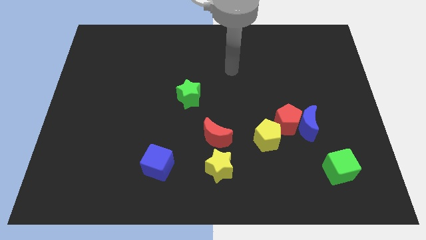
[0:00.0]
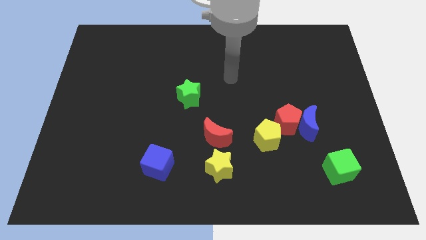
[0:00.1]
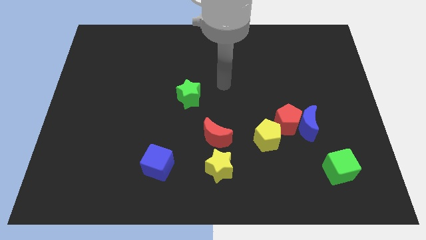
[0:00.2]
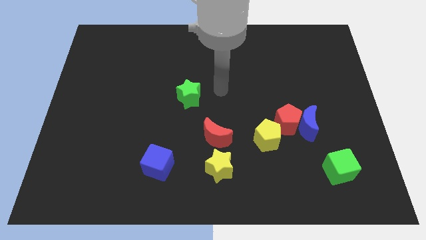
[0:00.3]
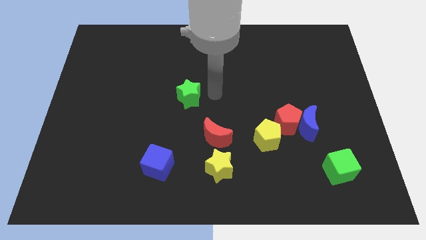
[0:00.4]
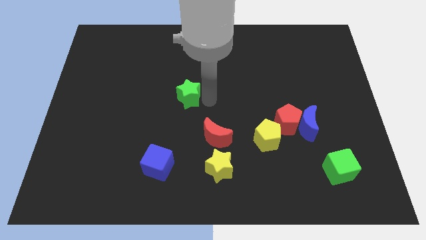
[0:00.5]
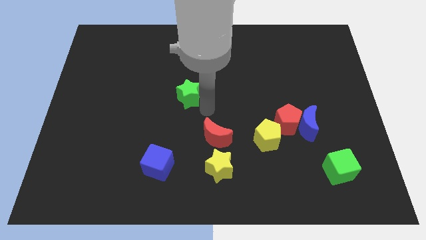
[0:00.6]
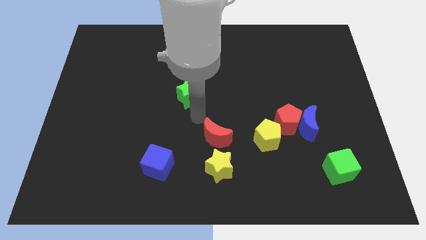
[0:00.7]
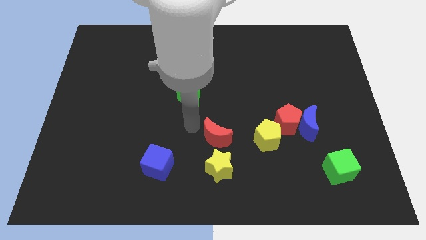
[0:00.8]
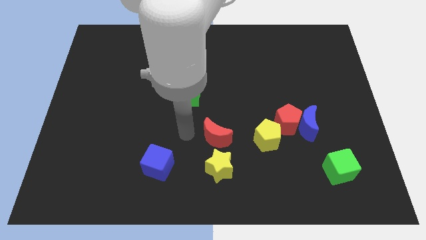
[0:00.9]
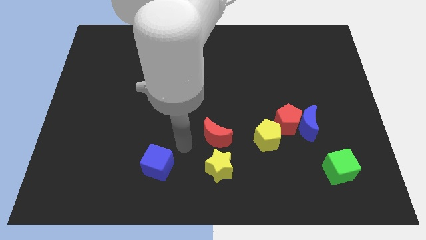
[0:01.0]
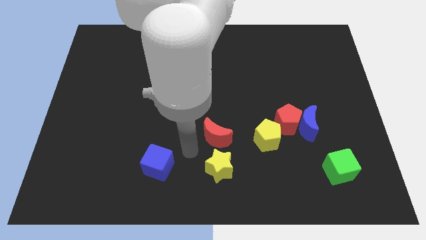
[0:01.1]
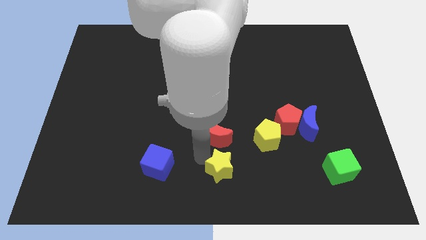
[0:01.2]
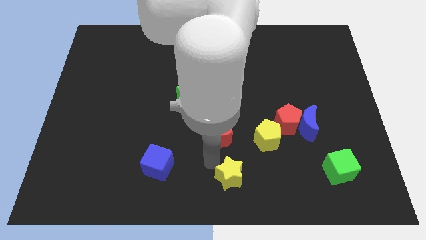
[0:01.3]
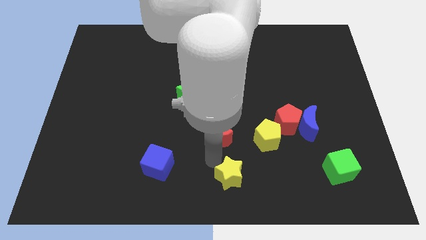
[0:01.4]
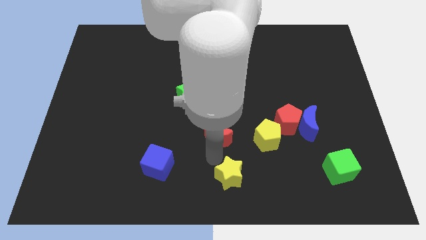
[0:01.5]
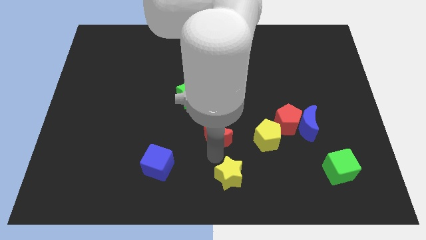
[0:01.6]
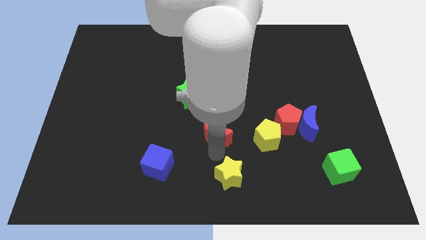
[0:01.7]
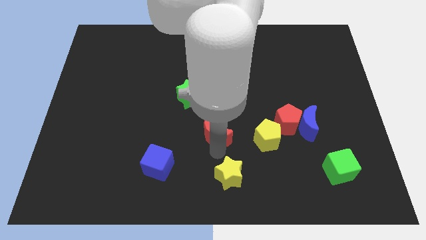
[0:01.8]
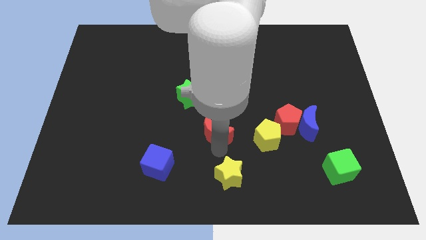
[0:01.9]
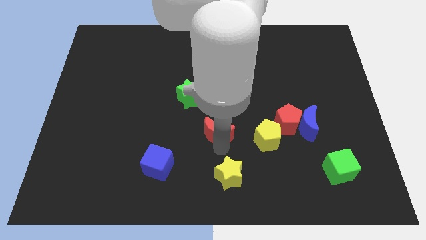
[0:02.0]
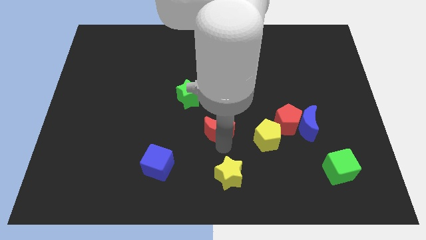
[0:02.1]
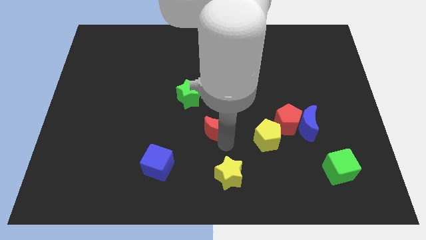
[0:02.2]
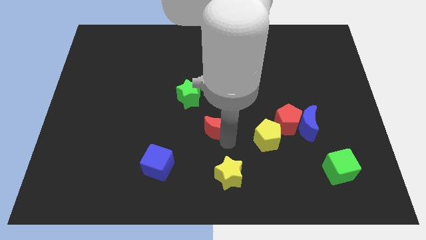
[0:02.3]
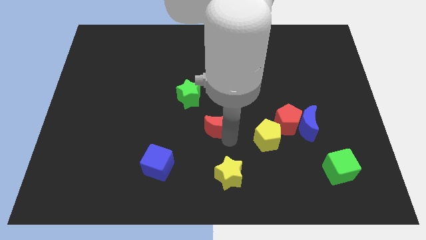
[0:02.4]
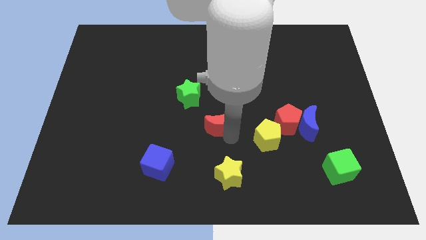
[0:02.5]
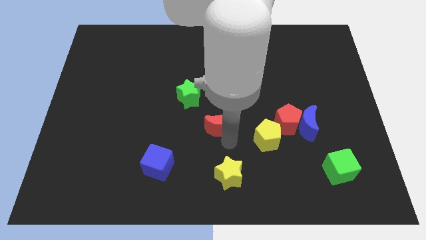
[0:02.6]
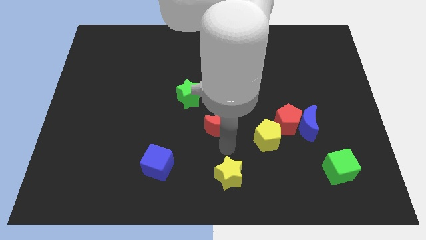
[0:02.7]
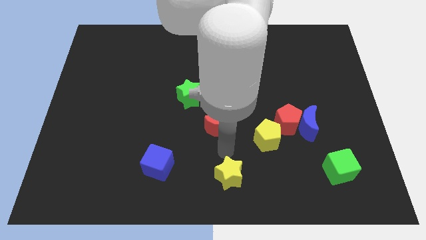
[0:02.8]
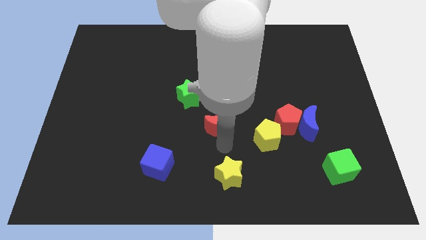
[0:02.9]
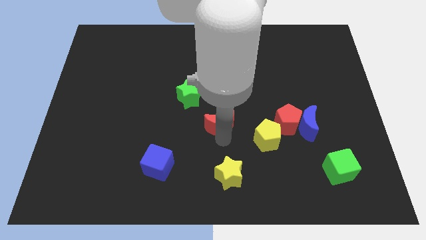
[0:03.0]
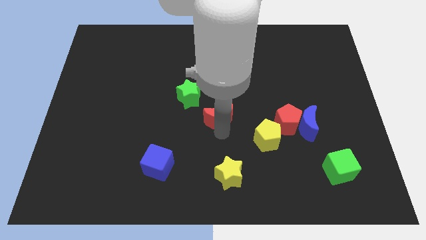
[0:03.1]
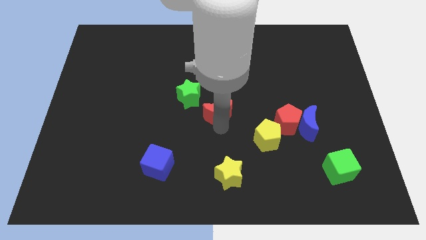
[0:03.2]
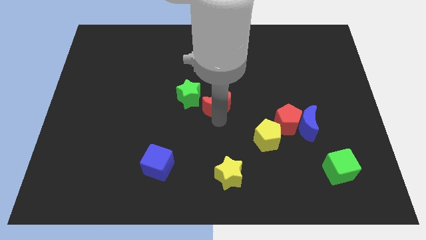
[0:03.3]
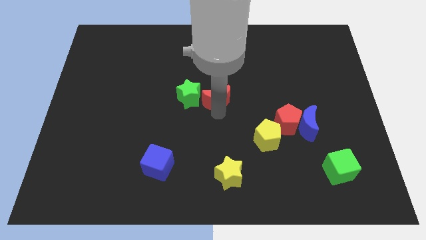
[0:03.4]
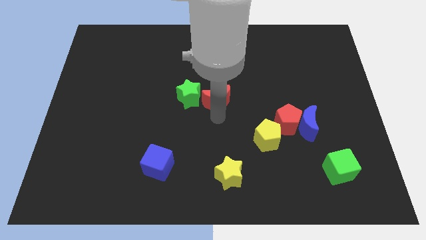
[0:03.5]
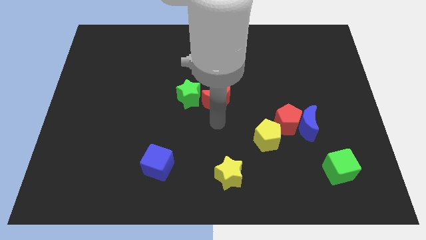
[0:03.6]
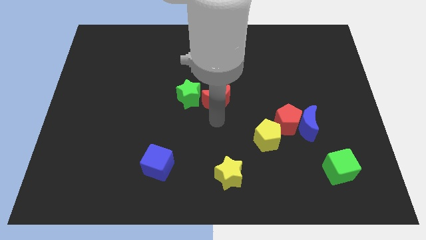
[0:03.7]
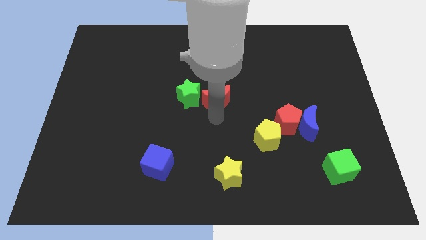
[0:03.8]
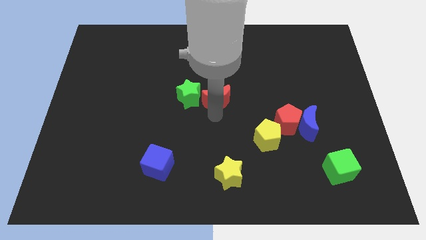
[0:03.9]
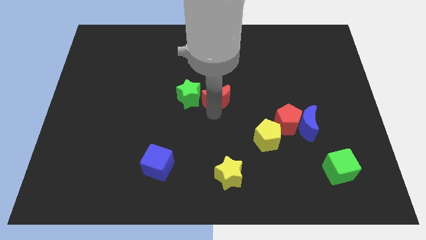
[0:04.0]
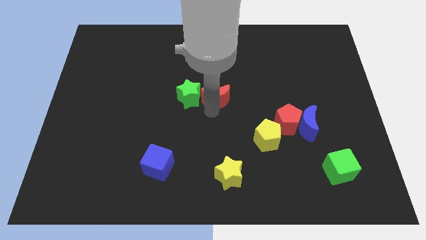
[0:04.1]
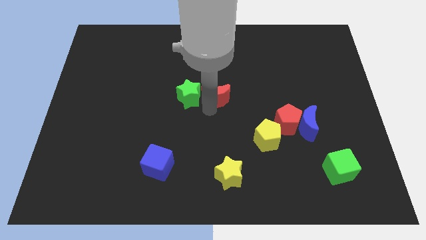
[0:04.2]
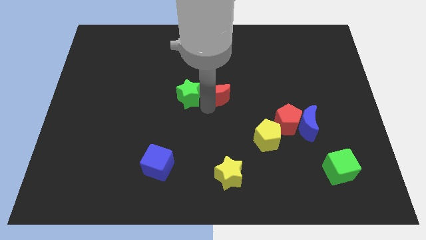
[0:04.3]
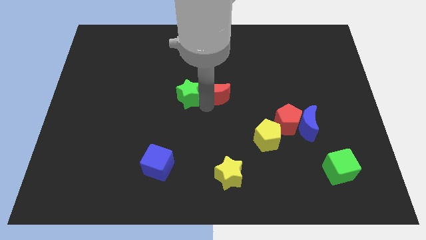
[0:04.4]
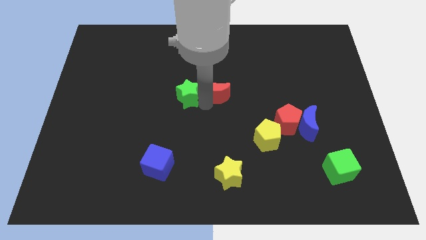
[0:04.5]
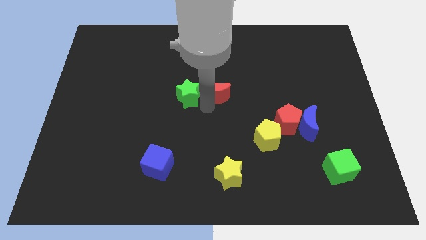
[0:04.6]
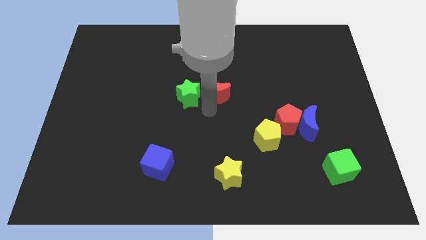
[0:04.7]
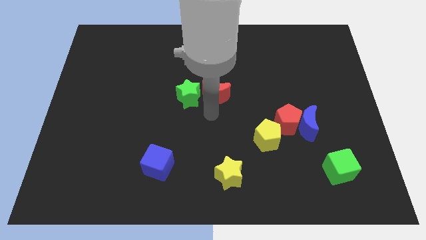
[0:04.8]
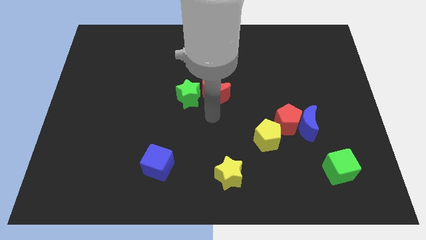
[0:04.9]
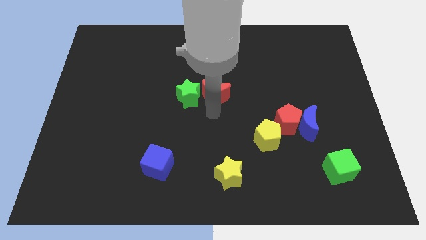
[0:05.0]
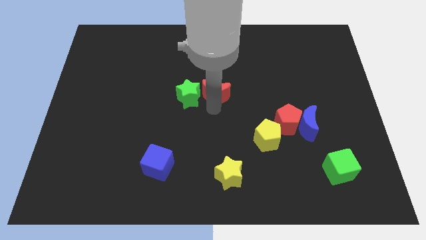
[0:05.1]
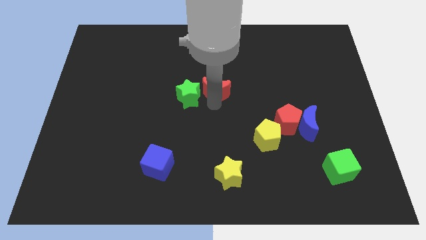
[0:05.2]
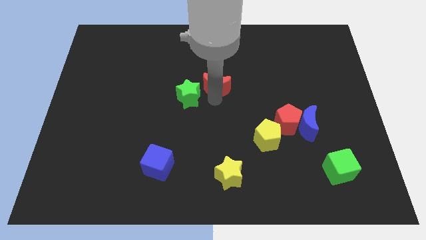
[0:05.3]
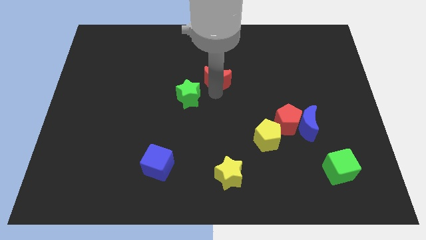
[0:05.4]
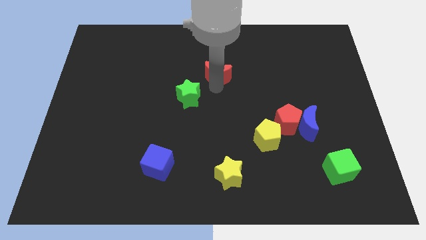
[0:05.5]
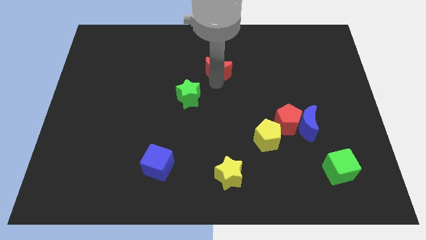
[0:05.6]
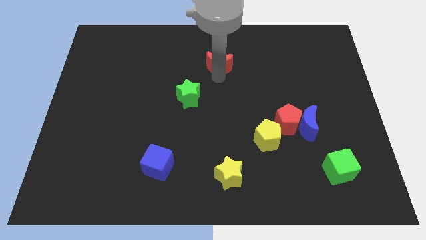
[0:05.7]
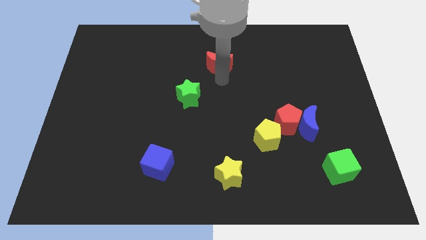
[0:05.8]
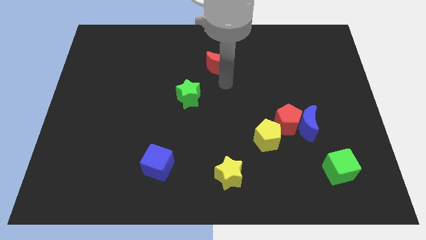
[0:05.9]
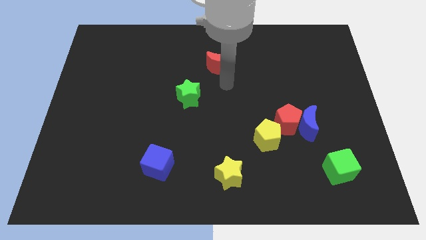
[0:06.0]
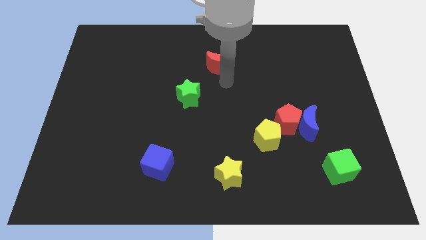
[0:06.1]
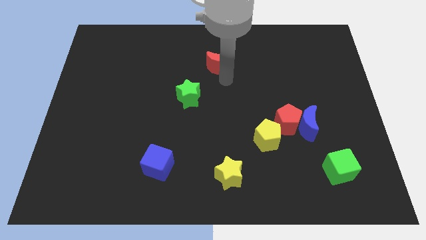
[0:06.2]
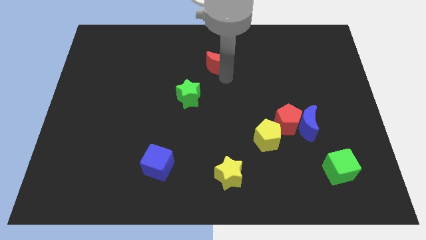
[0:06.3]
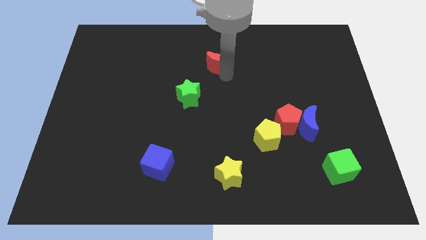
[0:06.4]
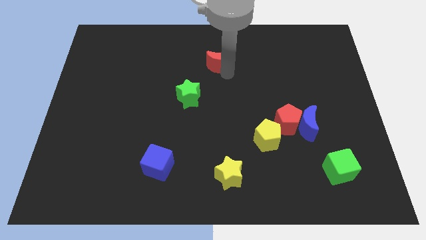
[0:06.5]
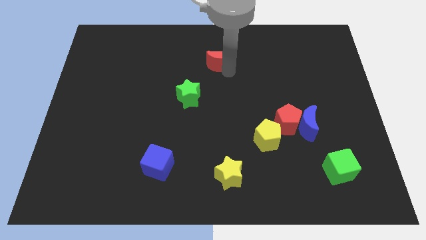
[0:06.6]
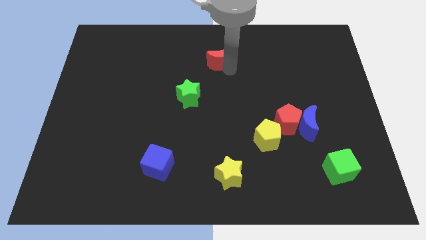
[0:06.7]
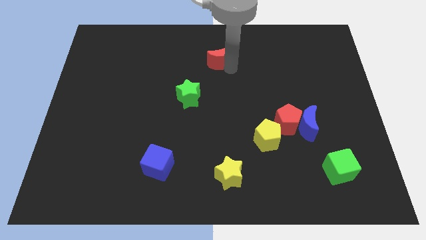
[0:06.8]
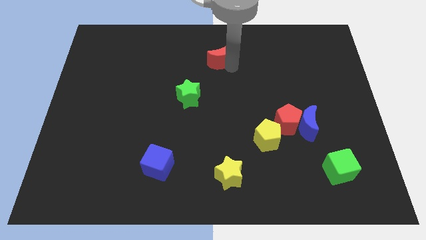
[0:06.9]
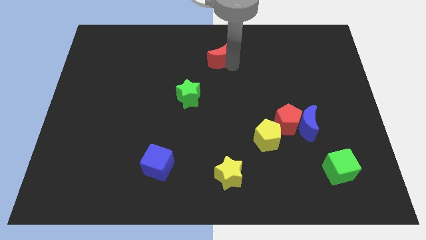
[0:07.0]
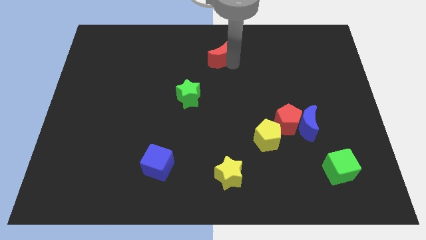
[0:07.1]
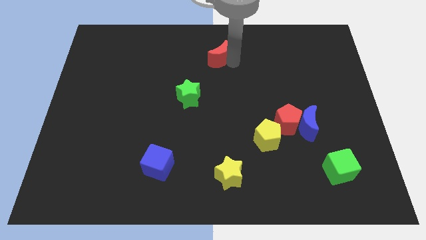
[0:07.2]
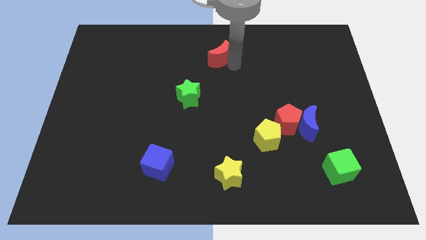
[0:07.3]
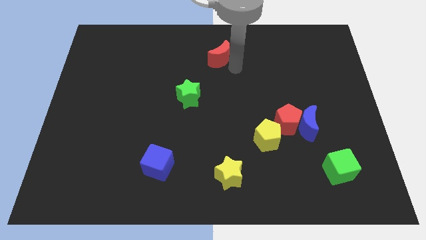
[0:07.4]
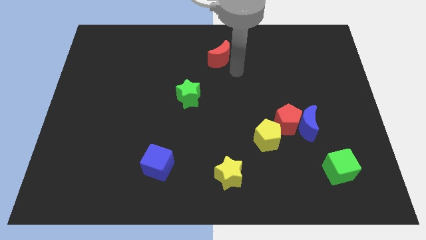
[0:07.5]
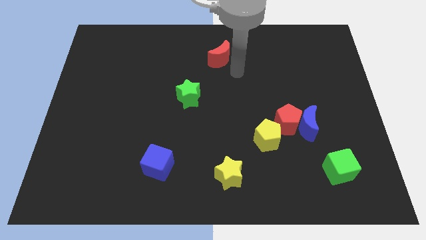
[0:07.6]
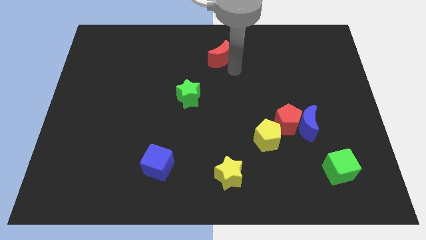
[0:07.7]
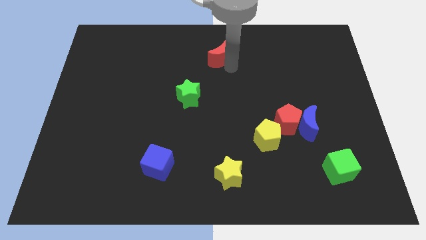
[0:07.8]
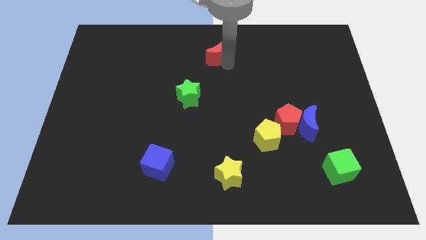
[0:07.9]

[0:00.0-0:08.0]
push the red moon to the top
